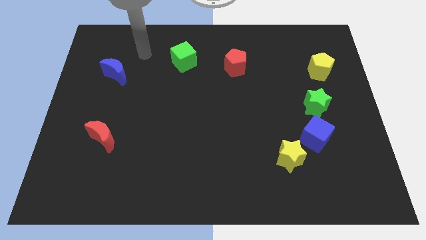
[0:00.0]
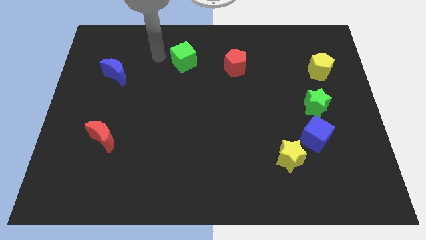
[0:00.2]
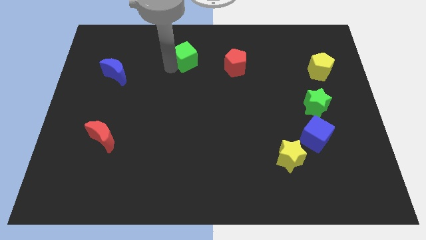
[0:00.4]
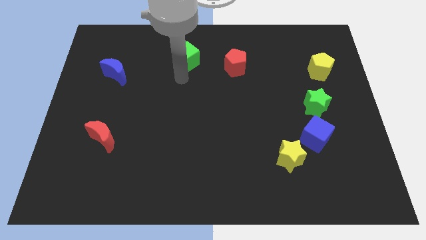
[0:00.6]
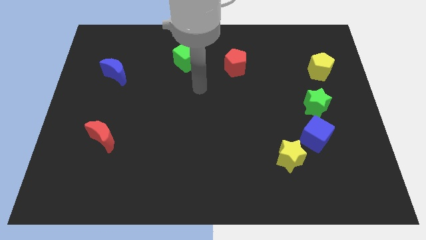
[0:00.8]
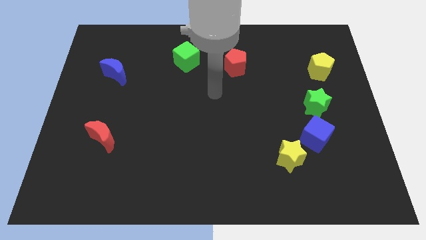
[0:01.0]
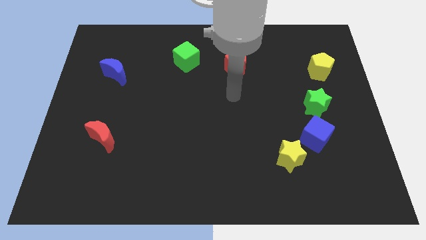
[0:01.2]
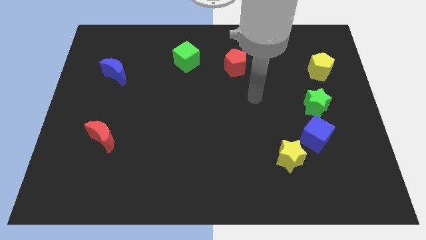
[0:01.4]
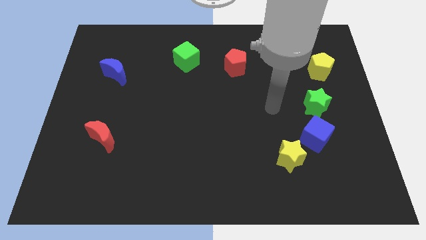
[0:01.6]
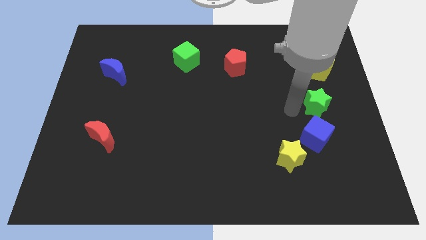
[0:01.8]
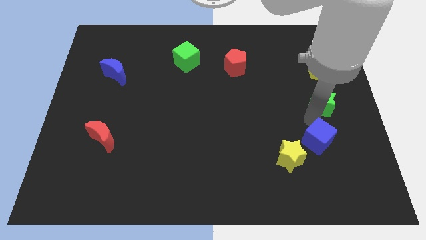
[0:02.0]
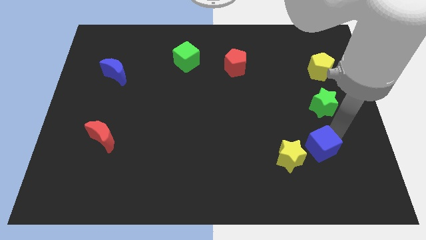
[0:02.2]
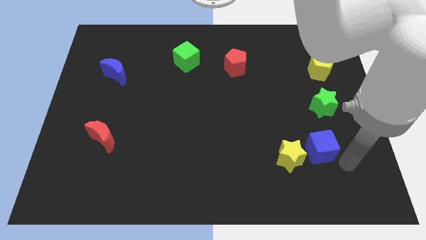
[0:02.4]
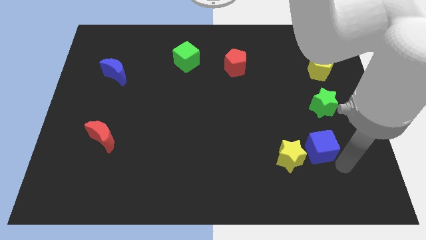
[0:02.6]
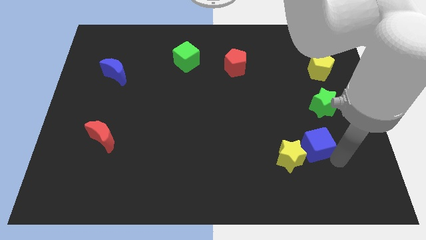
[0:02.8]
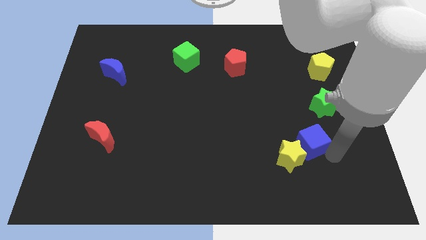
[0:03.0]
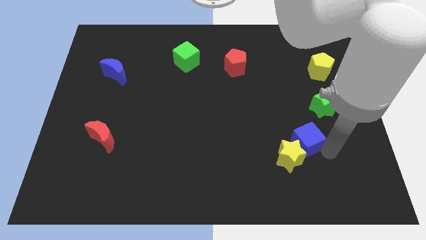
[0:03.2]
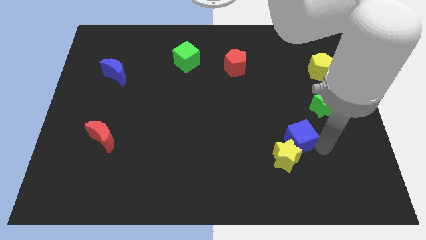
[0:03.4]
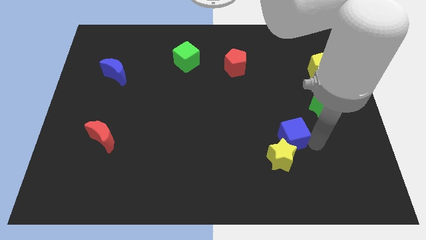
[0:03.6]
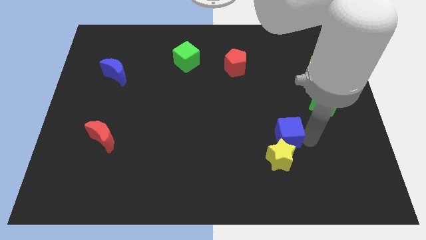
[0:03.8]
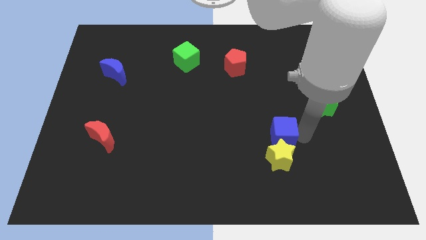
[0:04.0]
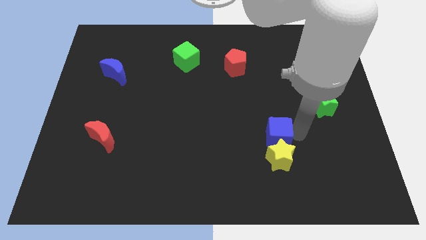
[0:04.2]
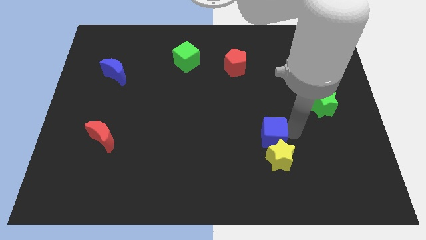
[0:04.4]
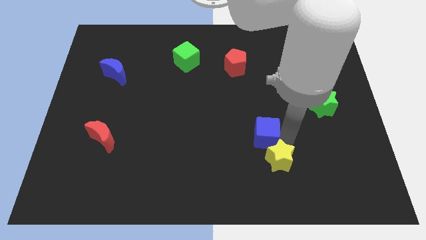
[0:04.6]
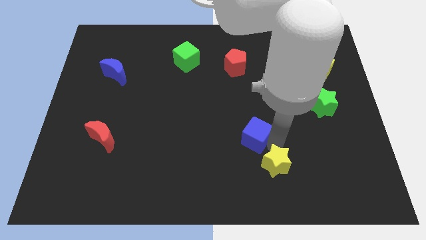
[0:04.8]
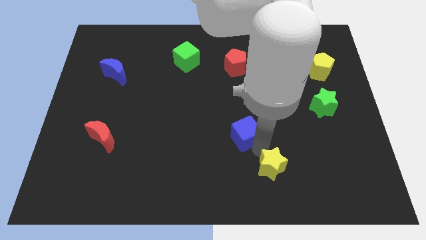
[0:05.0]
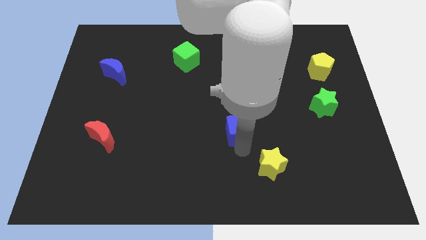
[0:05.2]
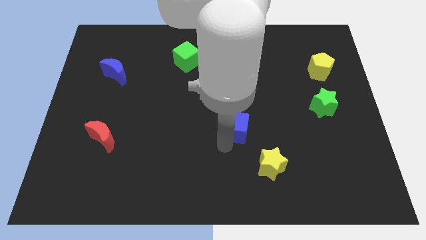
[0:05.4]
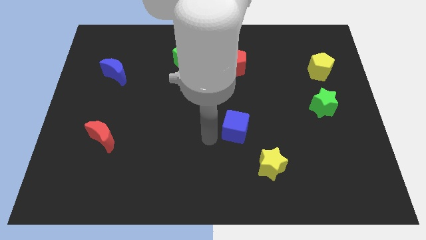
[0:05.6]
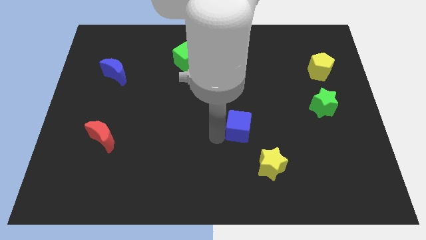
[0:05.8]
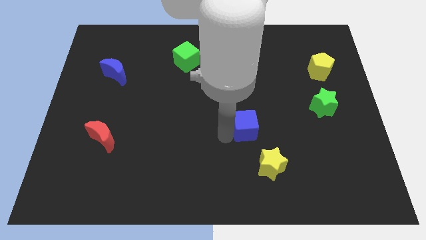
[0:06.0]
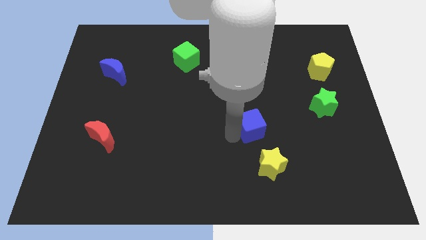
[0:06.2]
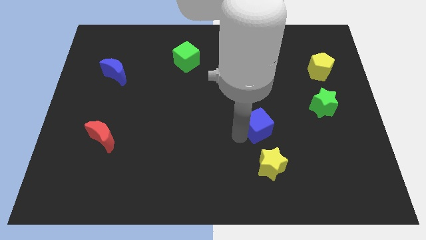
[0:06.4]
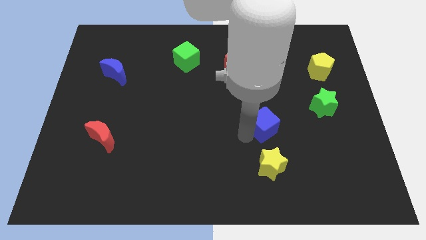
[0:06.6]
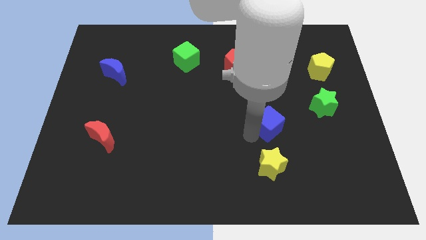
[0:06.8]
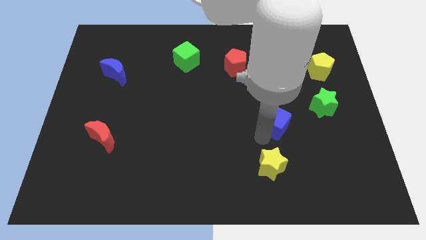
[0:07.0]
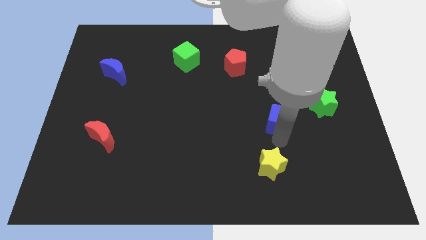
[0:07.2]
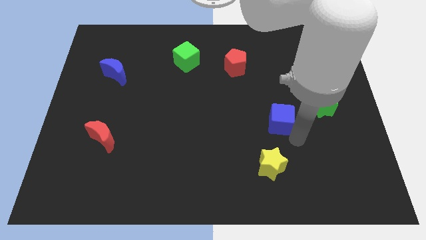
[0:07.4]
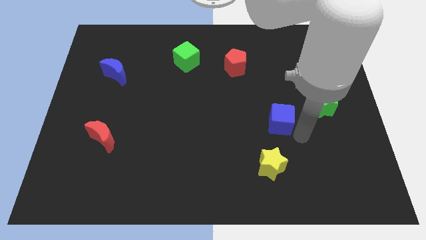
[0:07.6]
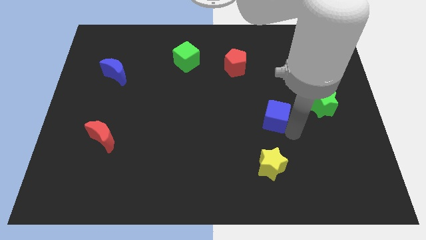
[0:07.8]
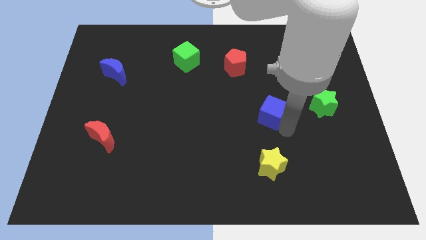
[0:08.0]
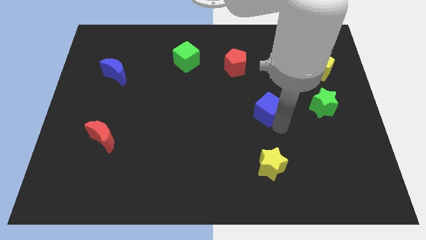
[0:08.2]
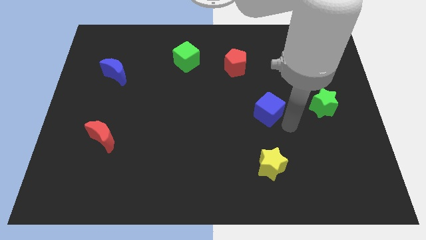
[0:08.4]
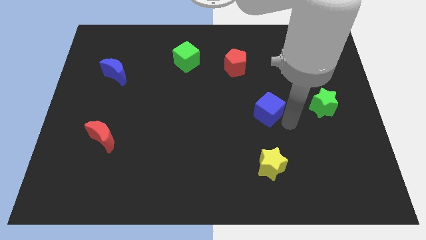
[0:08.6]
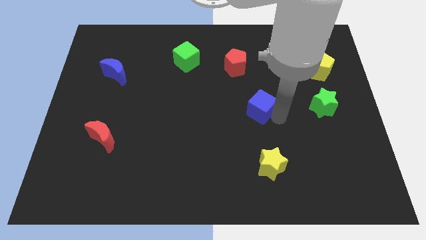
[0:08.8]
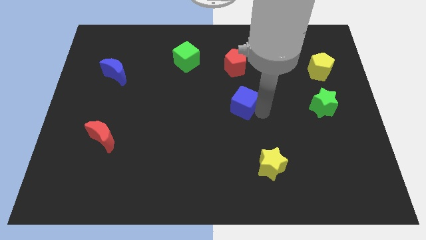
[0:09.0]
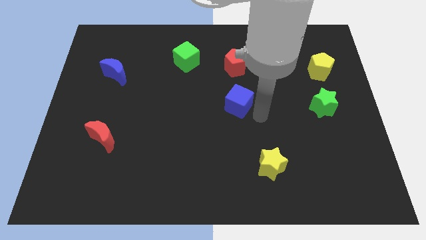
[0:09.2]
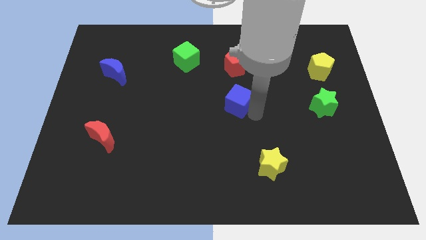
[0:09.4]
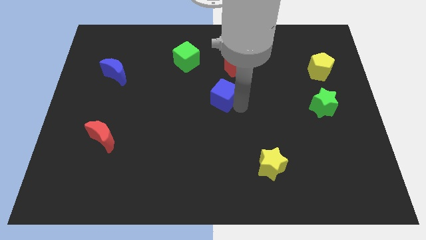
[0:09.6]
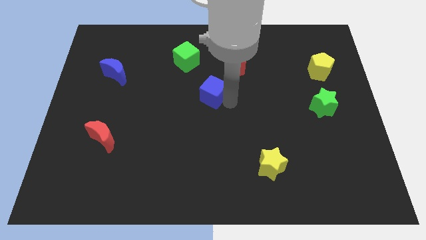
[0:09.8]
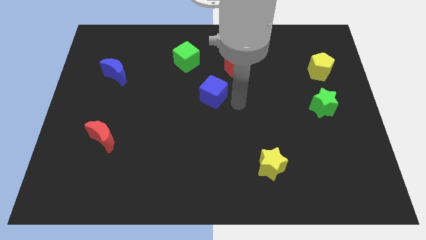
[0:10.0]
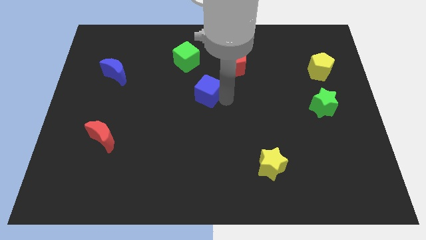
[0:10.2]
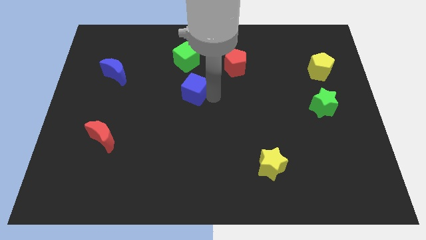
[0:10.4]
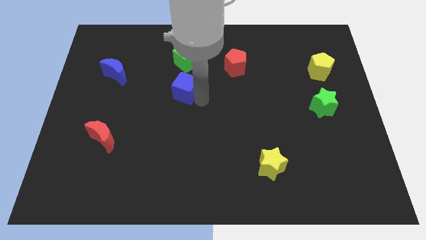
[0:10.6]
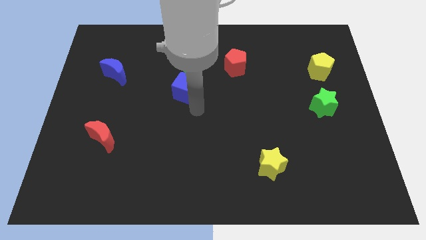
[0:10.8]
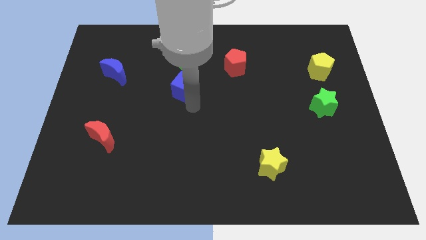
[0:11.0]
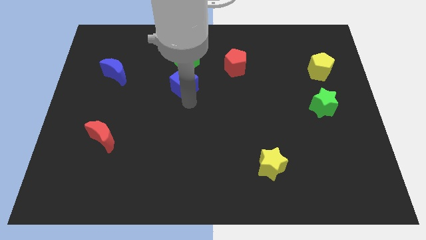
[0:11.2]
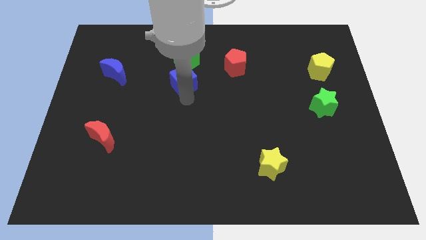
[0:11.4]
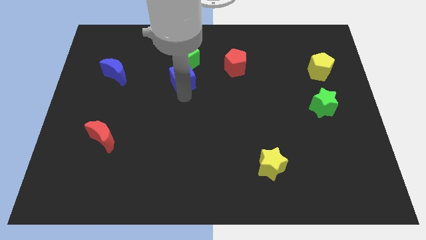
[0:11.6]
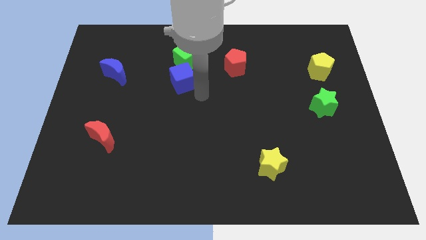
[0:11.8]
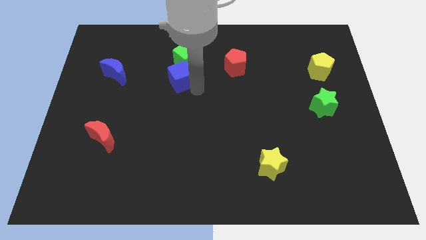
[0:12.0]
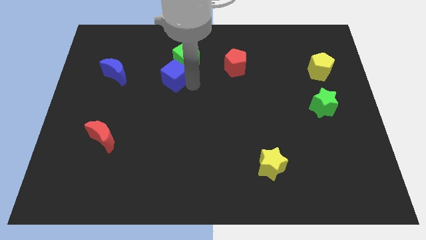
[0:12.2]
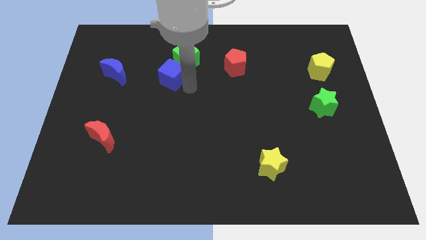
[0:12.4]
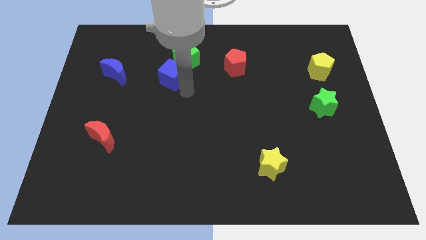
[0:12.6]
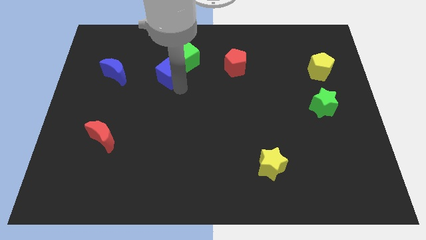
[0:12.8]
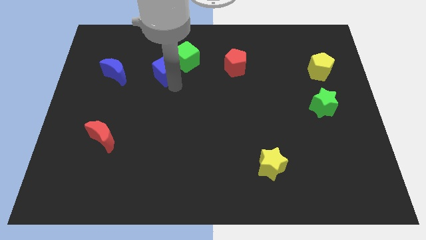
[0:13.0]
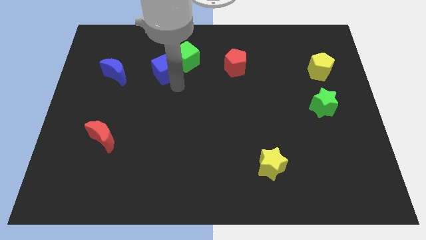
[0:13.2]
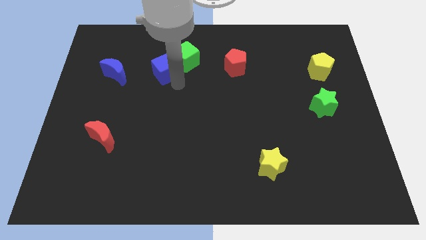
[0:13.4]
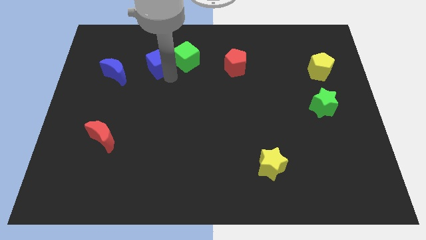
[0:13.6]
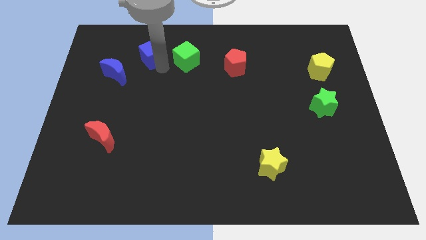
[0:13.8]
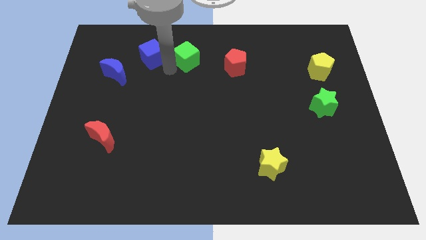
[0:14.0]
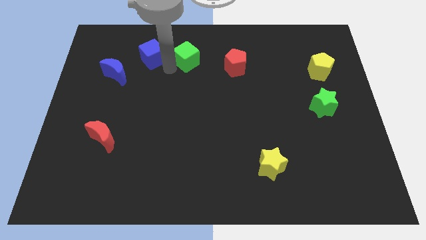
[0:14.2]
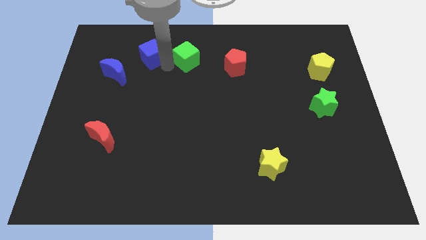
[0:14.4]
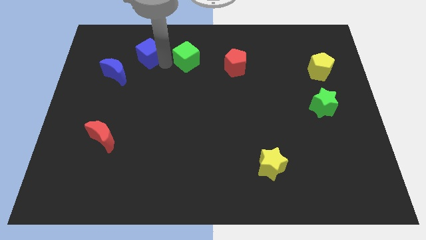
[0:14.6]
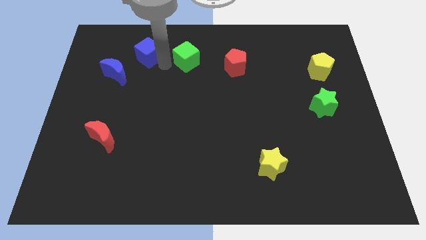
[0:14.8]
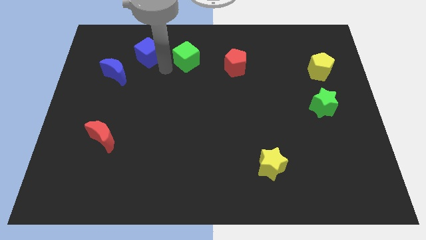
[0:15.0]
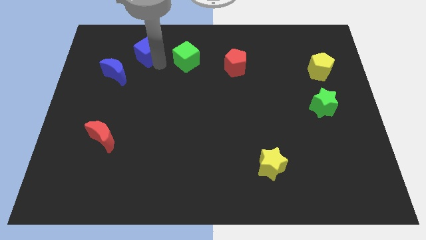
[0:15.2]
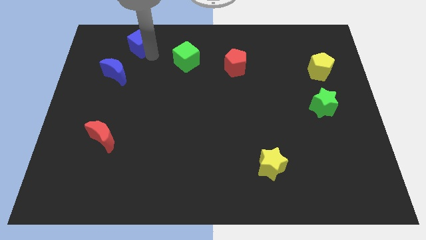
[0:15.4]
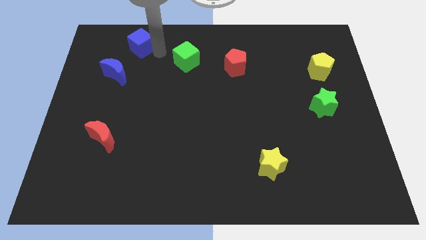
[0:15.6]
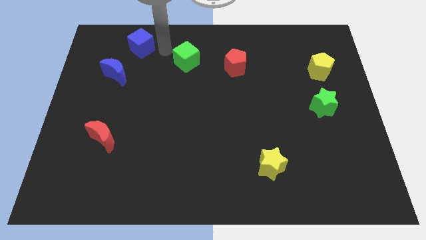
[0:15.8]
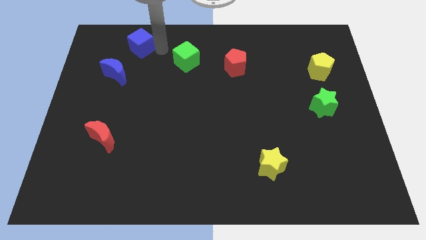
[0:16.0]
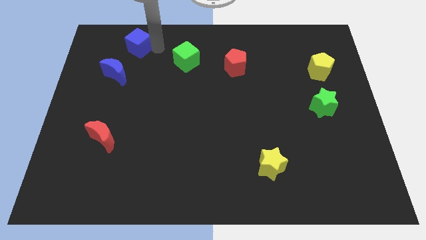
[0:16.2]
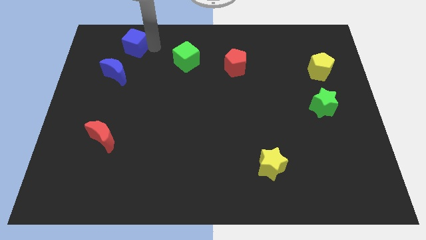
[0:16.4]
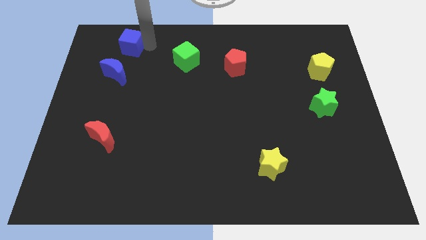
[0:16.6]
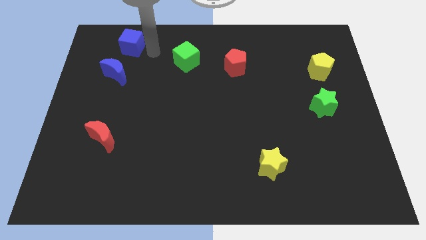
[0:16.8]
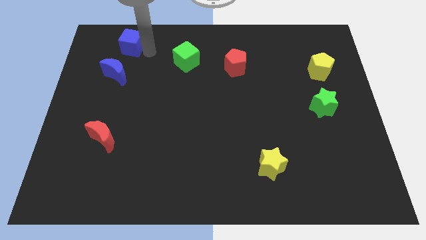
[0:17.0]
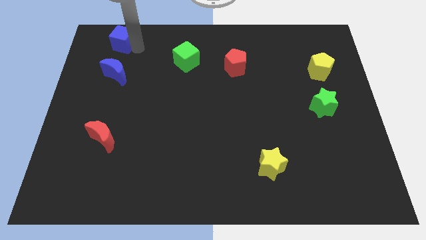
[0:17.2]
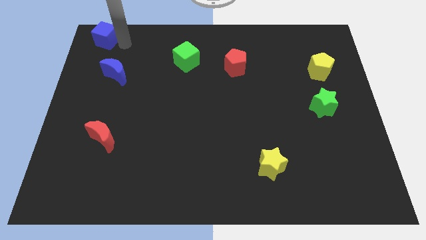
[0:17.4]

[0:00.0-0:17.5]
slide the blue cube to the upper left corner
